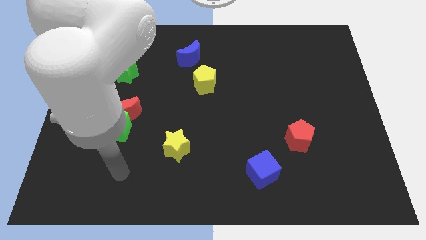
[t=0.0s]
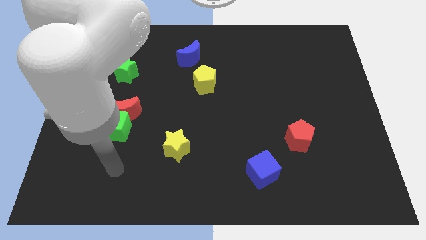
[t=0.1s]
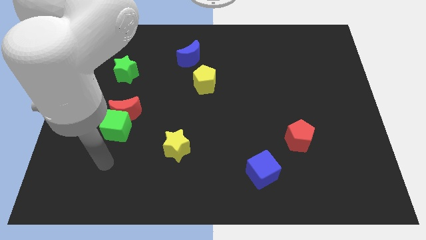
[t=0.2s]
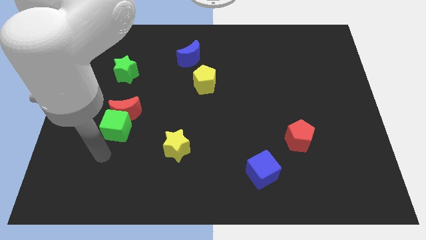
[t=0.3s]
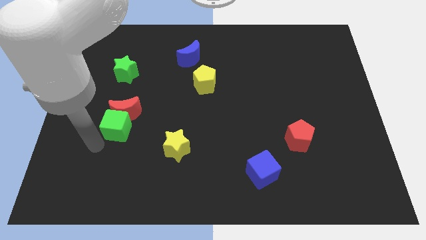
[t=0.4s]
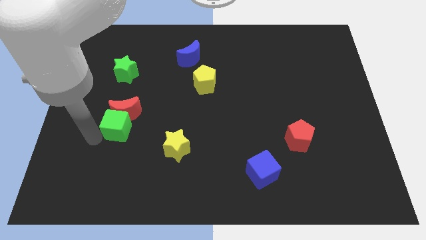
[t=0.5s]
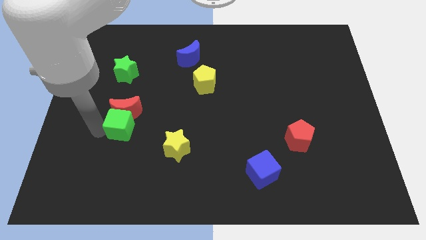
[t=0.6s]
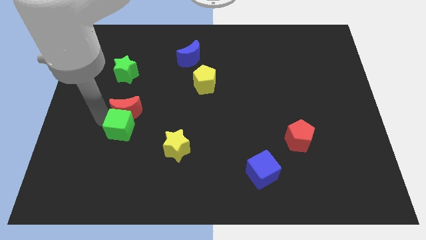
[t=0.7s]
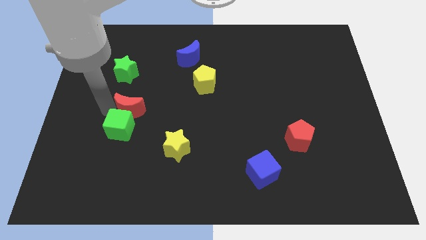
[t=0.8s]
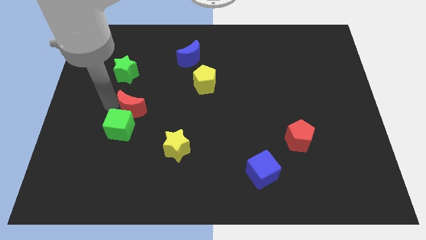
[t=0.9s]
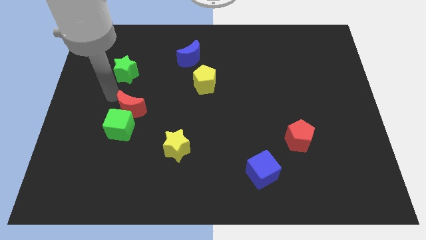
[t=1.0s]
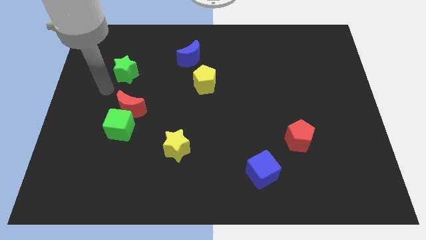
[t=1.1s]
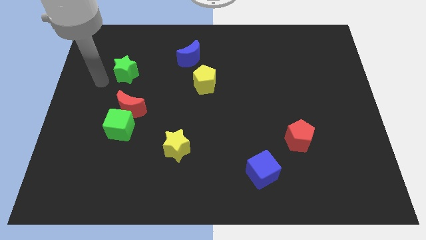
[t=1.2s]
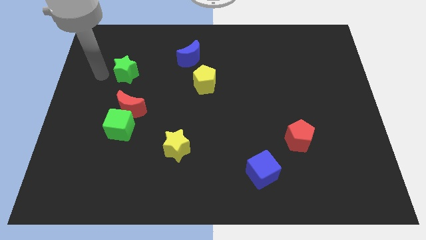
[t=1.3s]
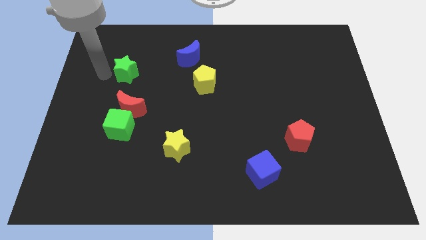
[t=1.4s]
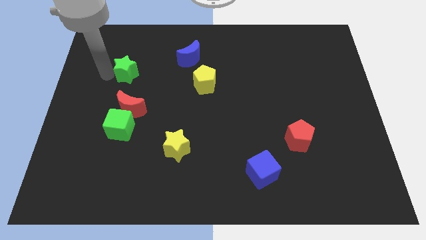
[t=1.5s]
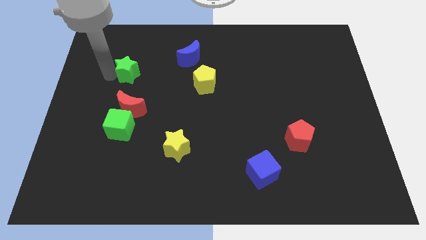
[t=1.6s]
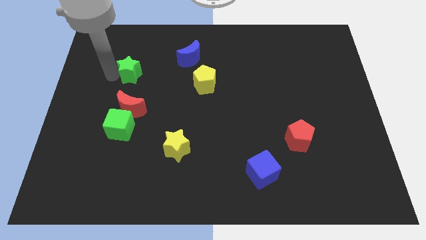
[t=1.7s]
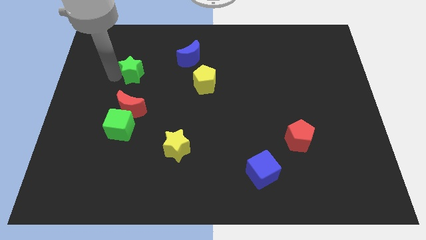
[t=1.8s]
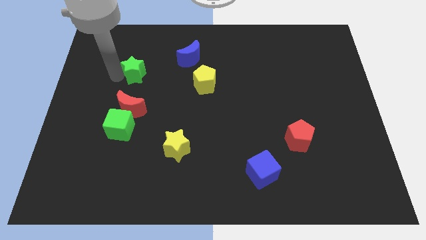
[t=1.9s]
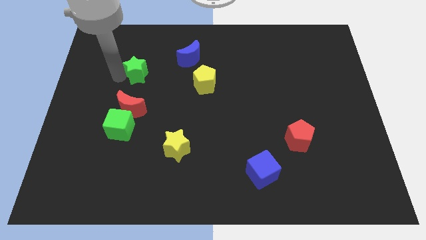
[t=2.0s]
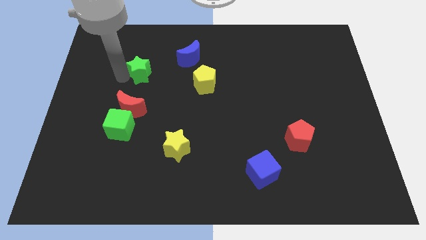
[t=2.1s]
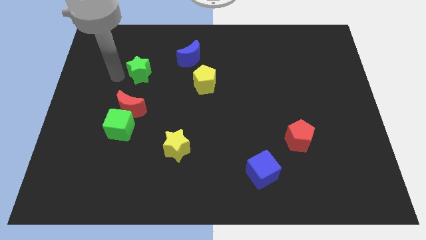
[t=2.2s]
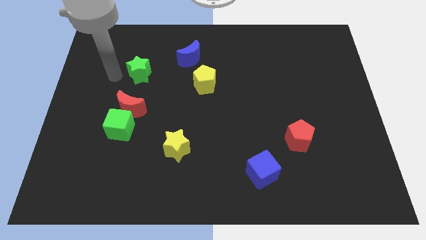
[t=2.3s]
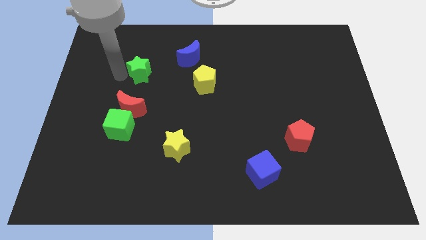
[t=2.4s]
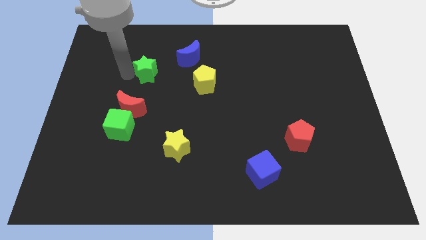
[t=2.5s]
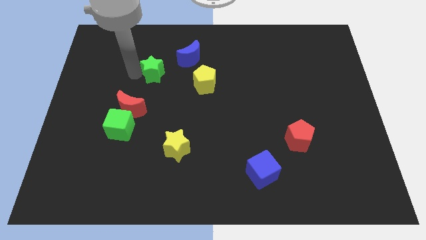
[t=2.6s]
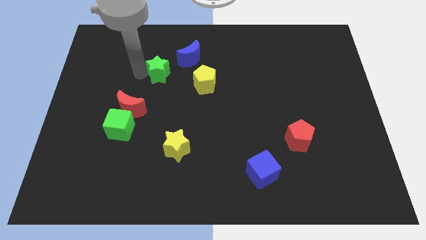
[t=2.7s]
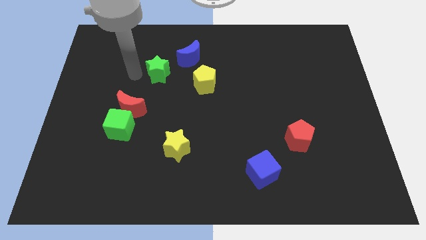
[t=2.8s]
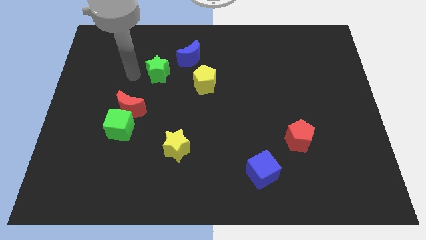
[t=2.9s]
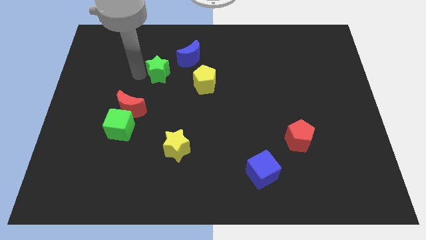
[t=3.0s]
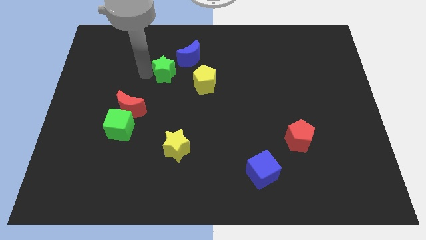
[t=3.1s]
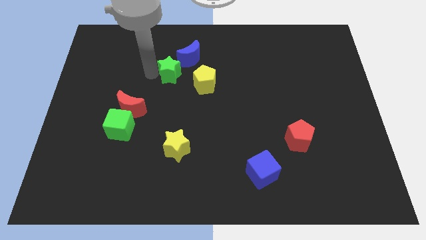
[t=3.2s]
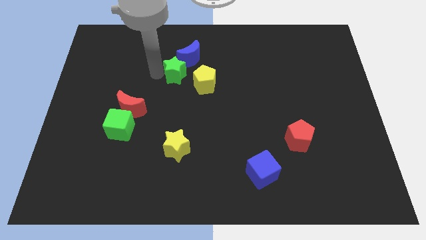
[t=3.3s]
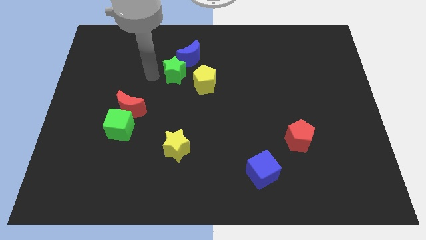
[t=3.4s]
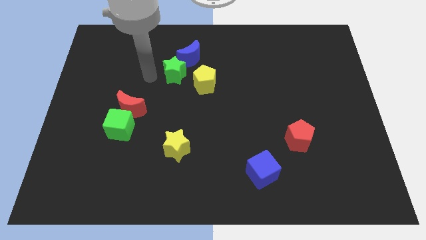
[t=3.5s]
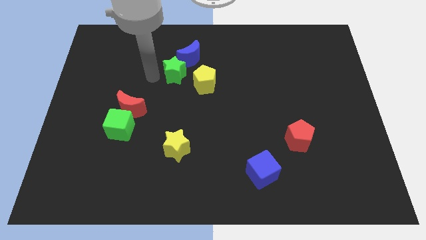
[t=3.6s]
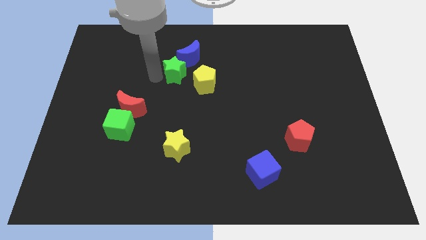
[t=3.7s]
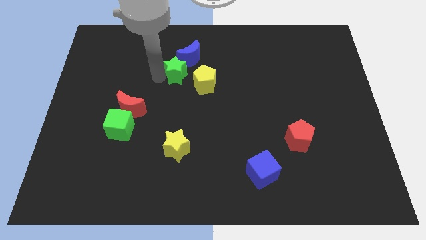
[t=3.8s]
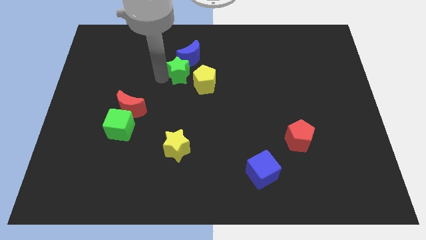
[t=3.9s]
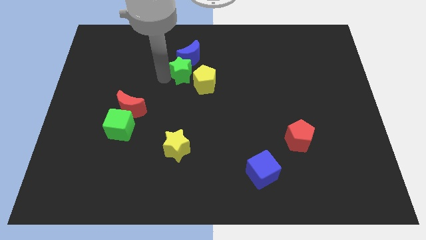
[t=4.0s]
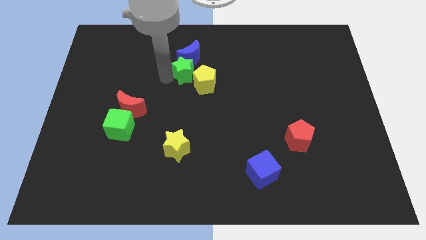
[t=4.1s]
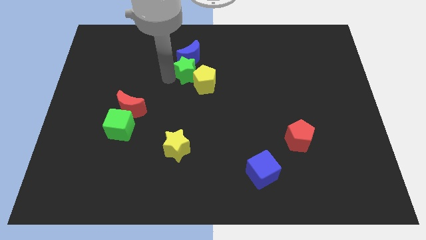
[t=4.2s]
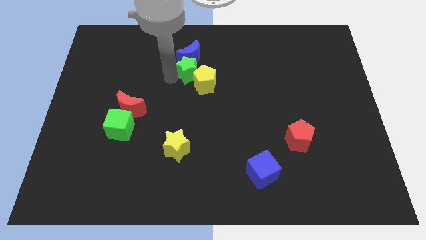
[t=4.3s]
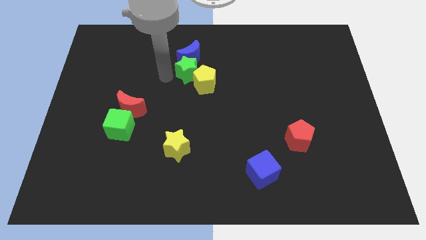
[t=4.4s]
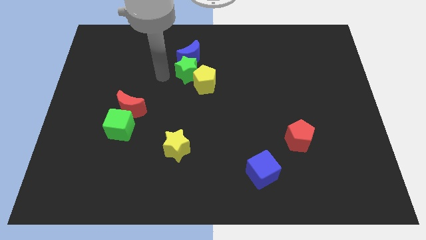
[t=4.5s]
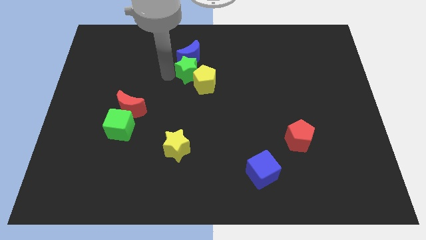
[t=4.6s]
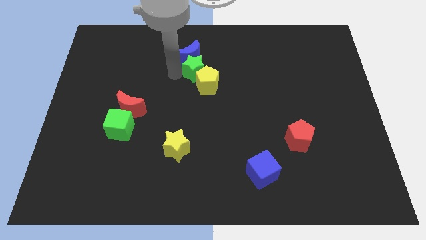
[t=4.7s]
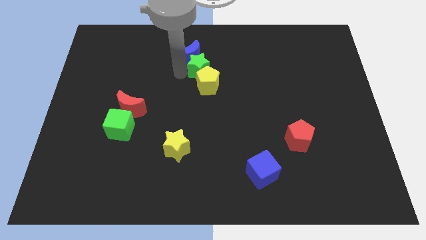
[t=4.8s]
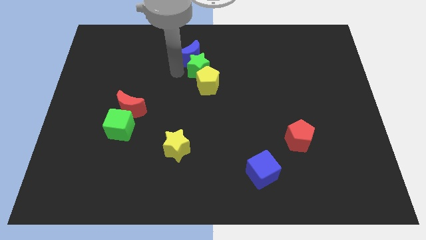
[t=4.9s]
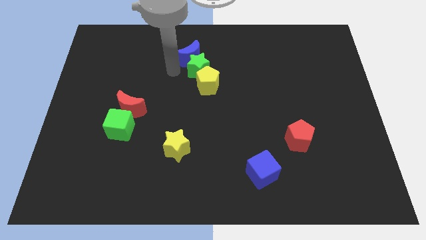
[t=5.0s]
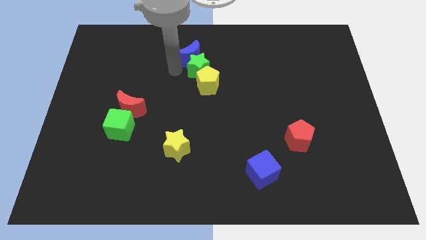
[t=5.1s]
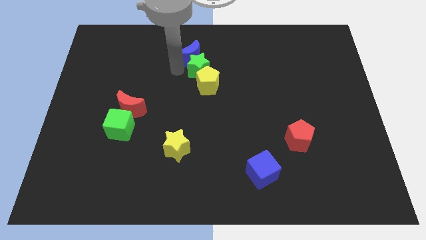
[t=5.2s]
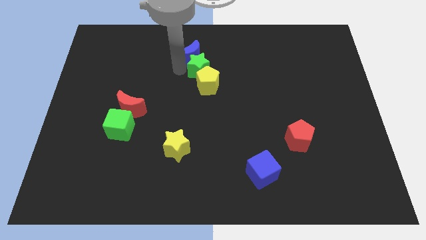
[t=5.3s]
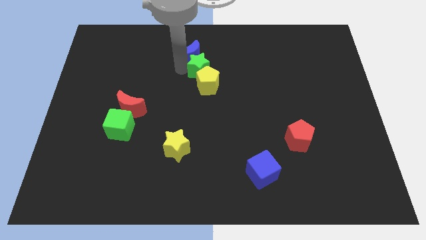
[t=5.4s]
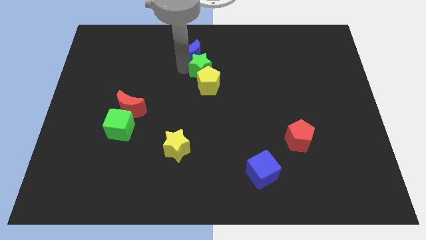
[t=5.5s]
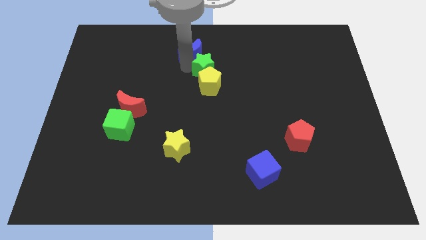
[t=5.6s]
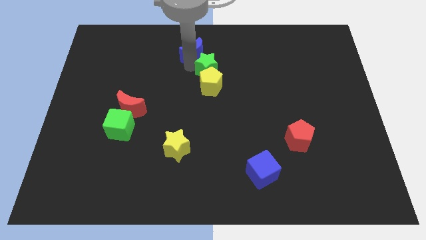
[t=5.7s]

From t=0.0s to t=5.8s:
move the green star right

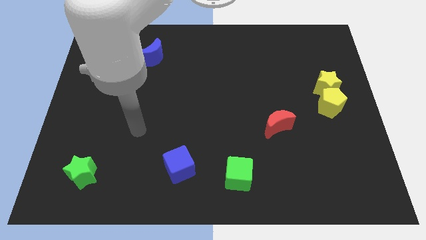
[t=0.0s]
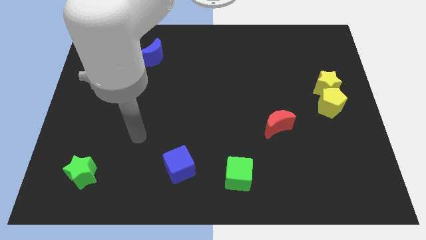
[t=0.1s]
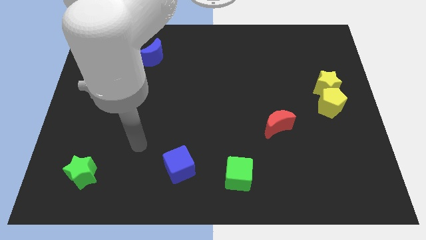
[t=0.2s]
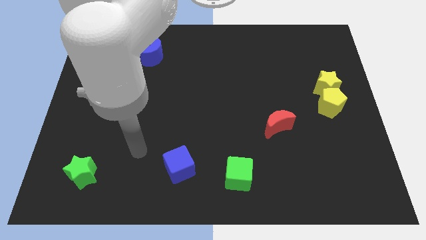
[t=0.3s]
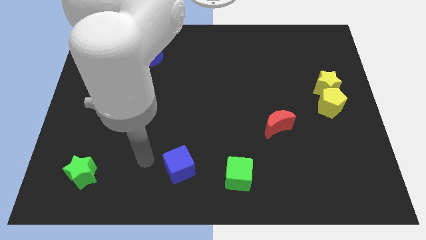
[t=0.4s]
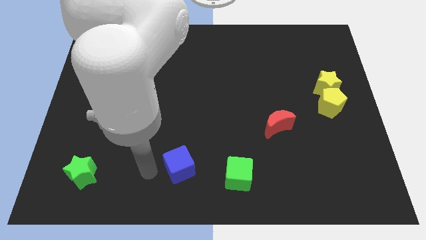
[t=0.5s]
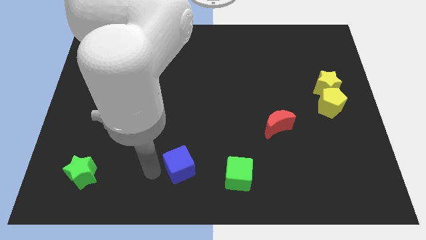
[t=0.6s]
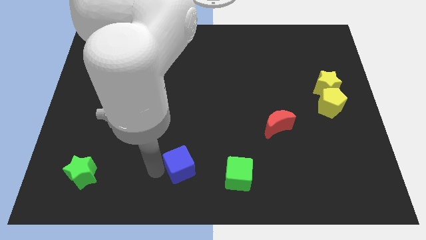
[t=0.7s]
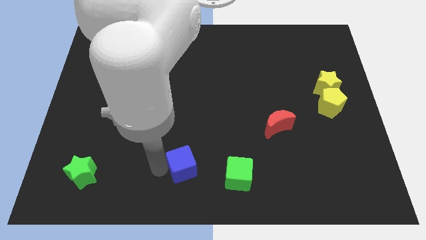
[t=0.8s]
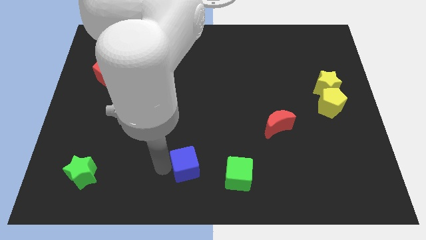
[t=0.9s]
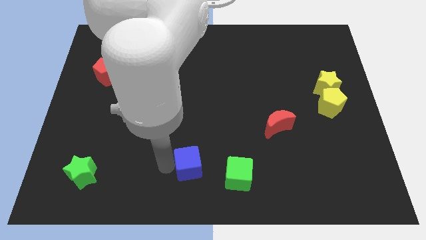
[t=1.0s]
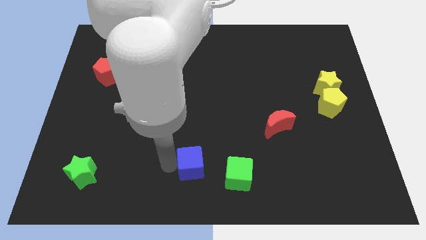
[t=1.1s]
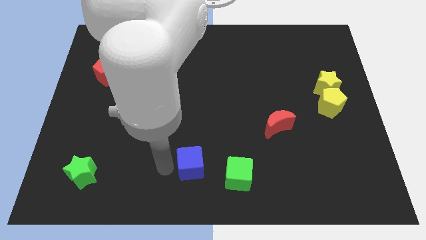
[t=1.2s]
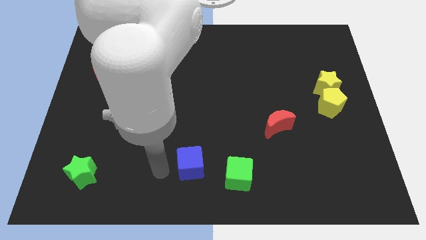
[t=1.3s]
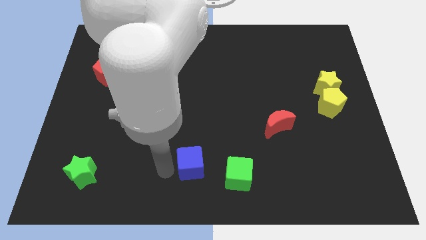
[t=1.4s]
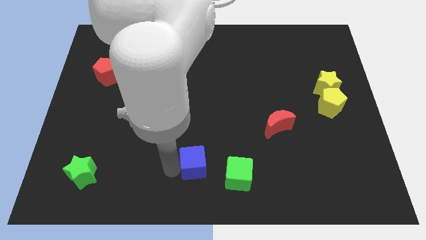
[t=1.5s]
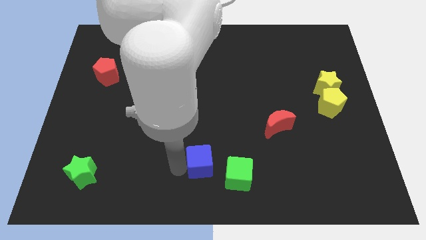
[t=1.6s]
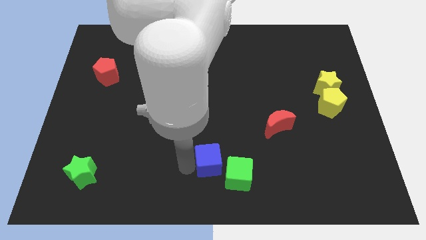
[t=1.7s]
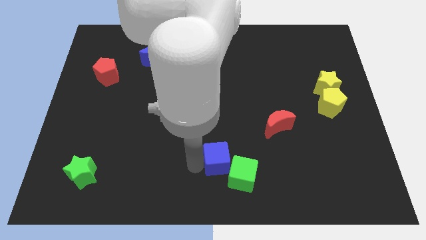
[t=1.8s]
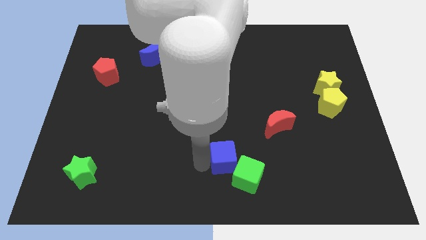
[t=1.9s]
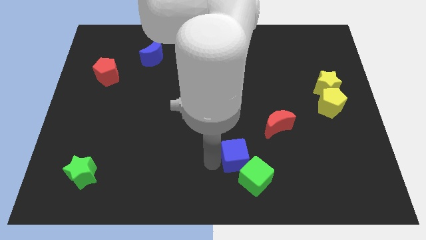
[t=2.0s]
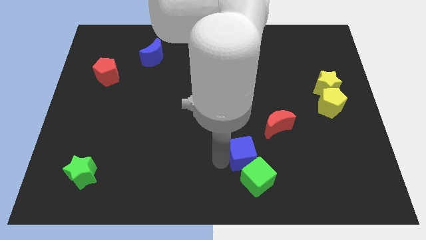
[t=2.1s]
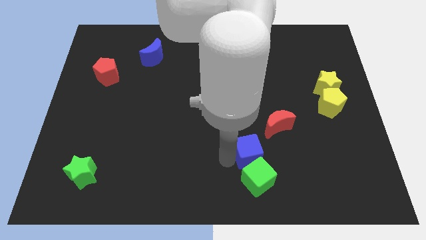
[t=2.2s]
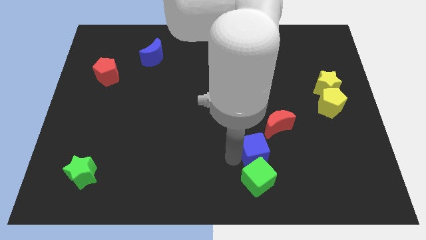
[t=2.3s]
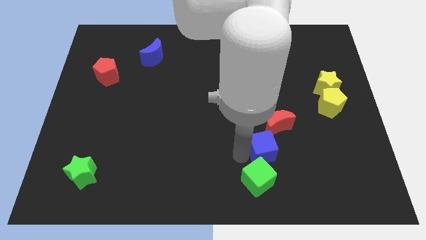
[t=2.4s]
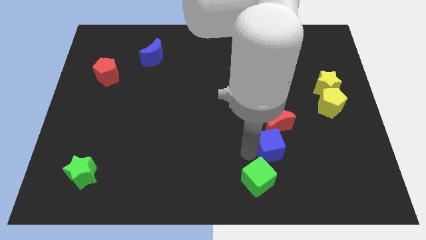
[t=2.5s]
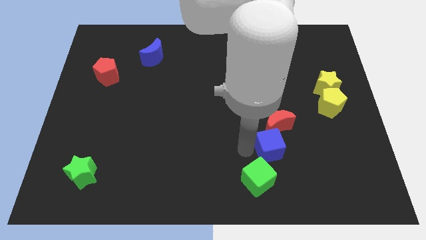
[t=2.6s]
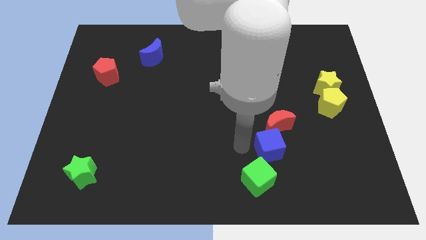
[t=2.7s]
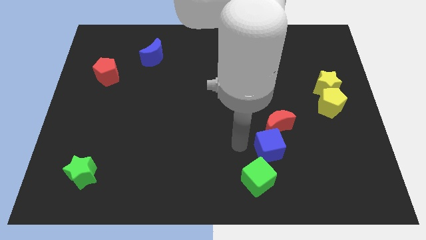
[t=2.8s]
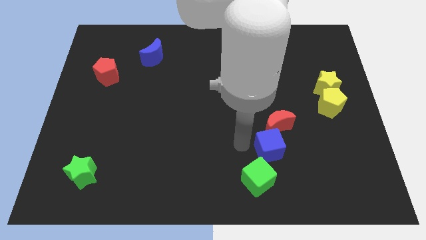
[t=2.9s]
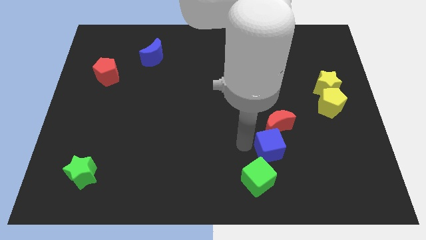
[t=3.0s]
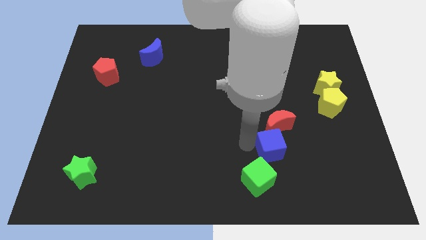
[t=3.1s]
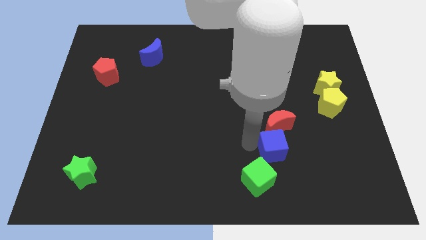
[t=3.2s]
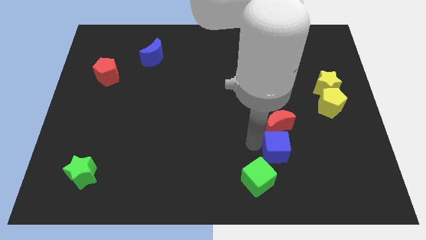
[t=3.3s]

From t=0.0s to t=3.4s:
push the blue cube right
